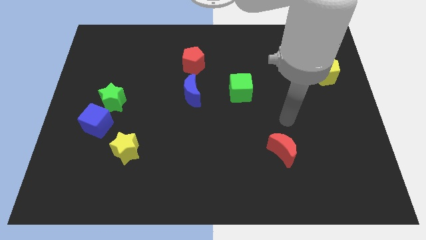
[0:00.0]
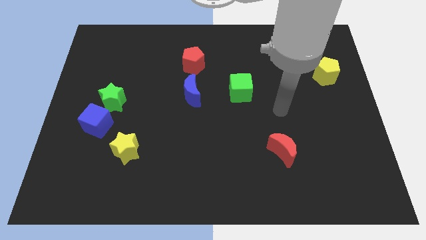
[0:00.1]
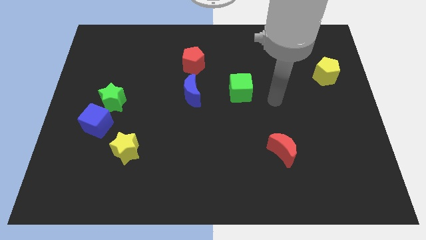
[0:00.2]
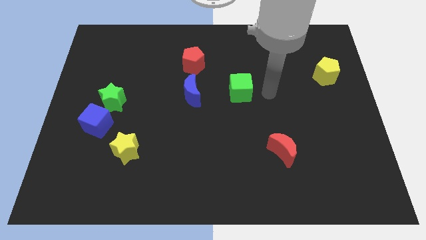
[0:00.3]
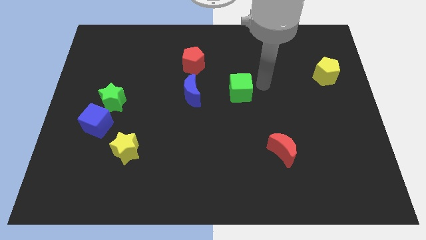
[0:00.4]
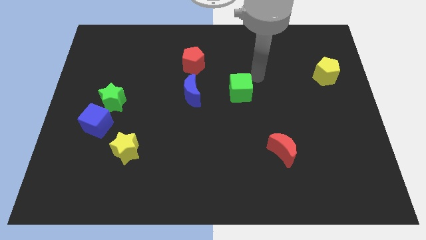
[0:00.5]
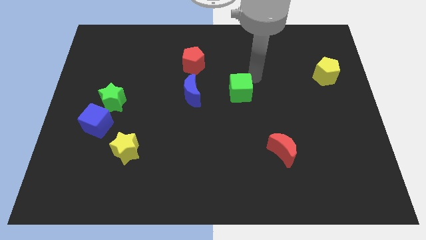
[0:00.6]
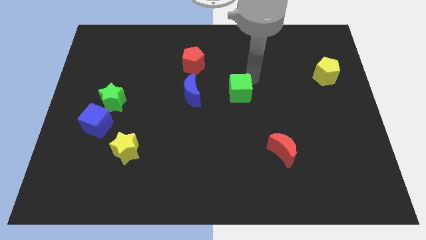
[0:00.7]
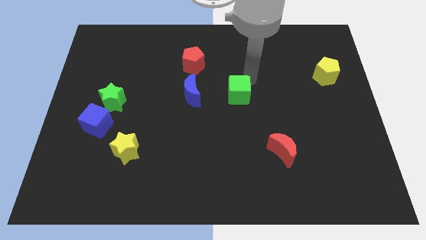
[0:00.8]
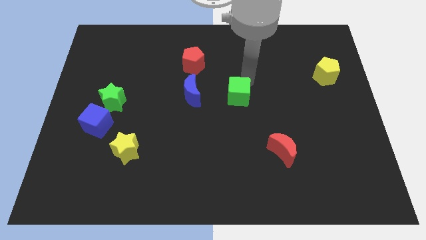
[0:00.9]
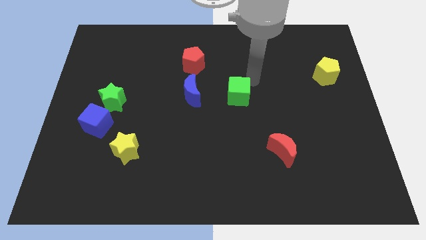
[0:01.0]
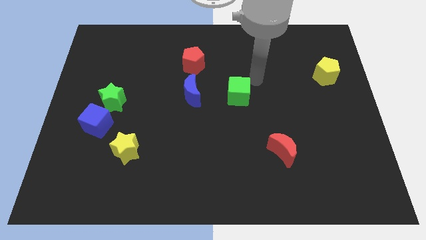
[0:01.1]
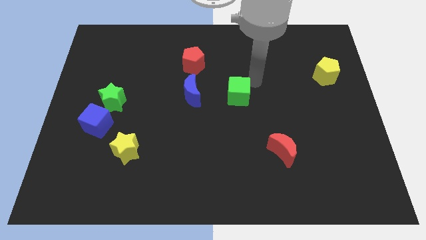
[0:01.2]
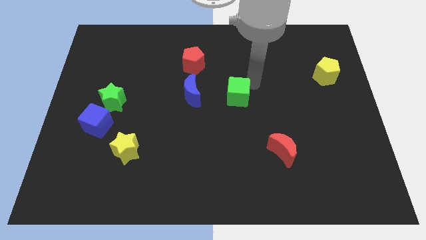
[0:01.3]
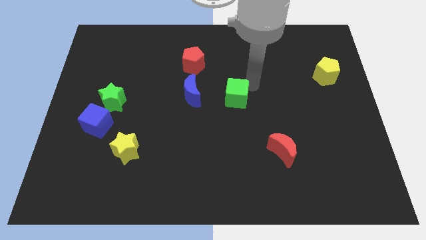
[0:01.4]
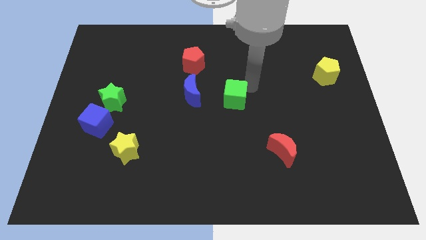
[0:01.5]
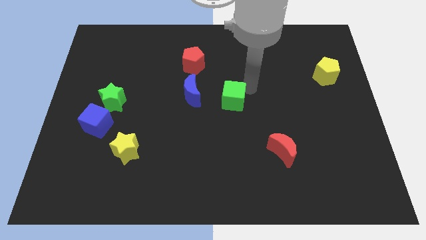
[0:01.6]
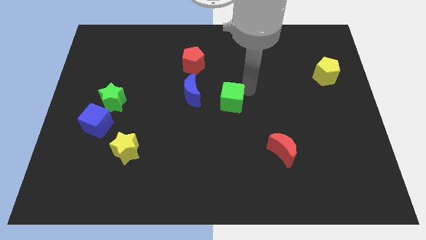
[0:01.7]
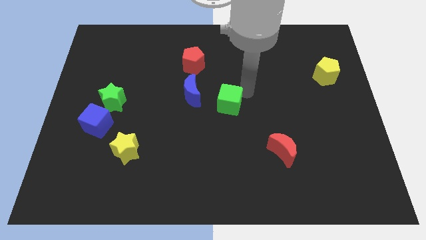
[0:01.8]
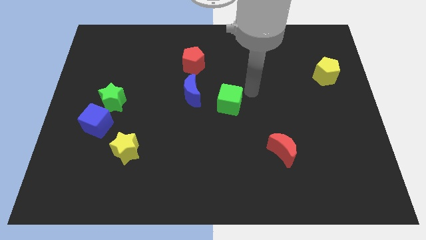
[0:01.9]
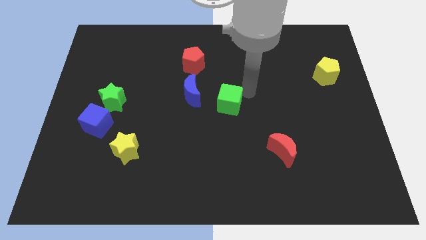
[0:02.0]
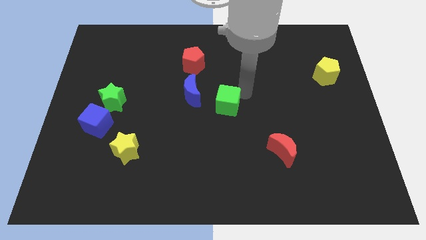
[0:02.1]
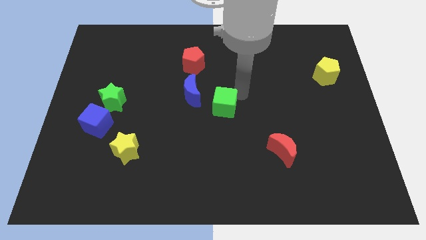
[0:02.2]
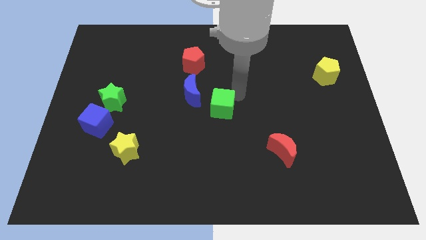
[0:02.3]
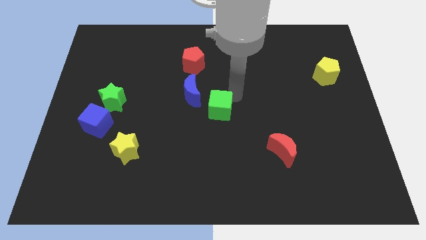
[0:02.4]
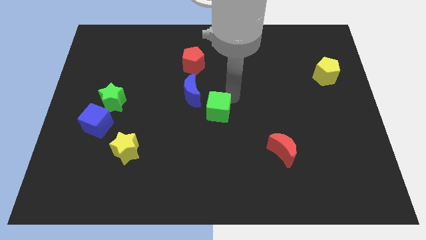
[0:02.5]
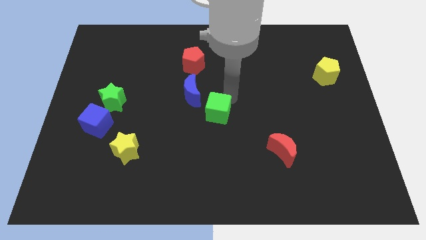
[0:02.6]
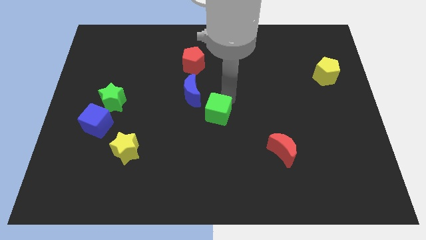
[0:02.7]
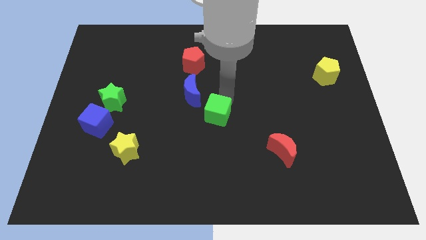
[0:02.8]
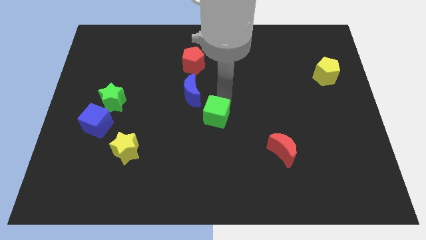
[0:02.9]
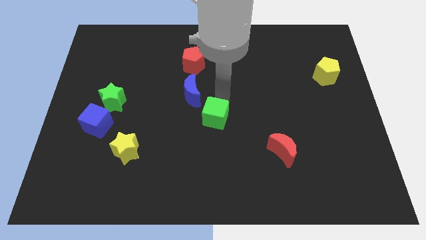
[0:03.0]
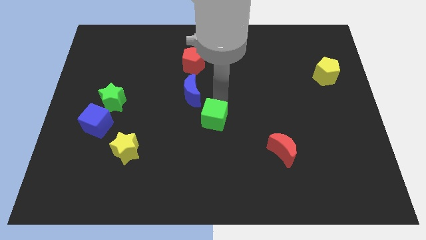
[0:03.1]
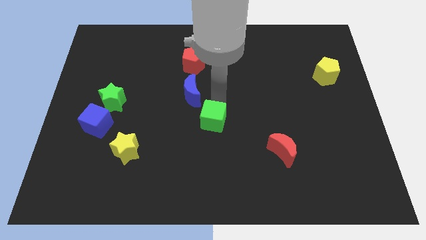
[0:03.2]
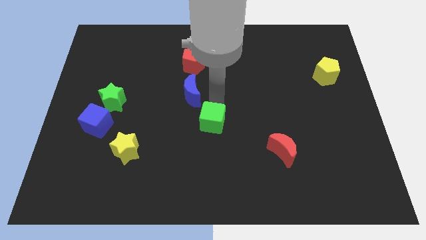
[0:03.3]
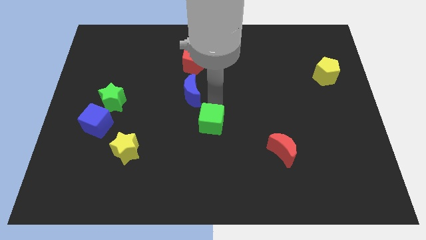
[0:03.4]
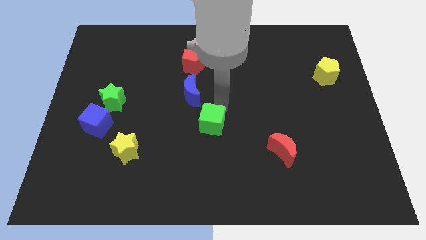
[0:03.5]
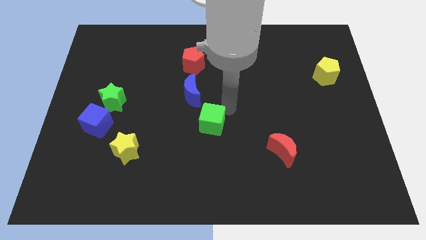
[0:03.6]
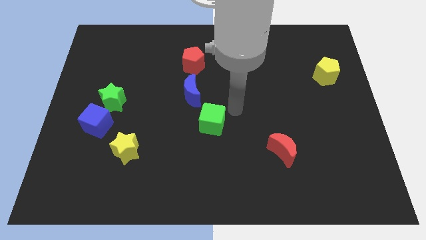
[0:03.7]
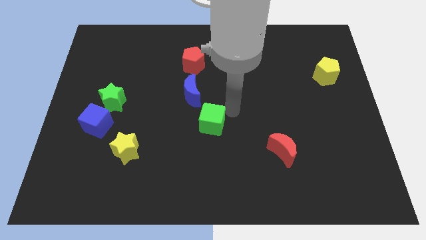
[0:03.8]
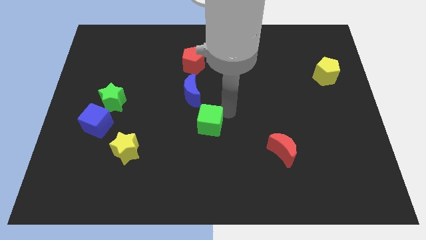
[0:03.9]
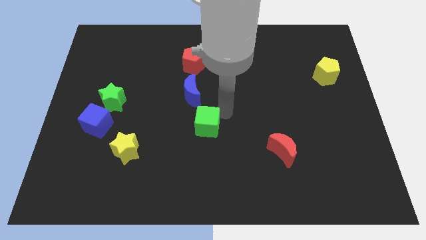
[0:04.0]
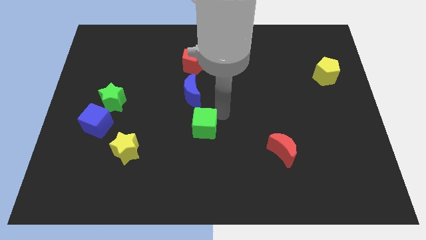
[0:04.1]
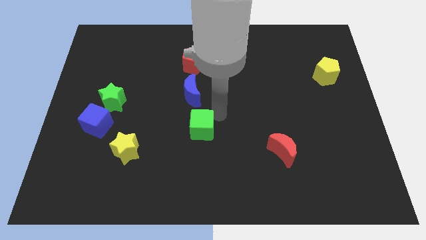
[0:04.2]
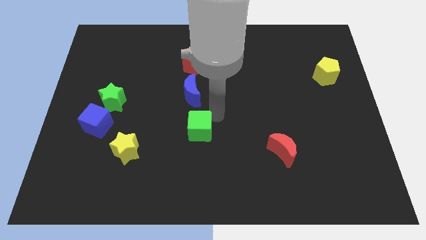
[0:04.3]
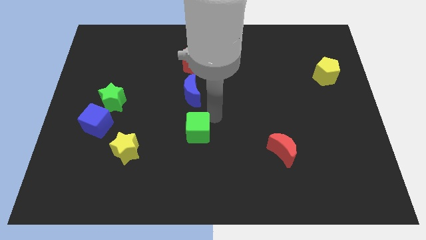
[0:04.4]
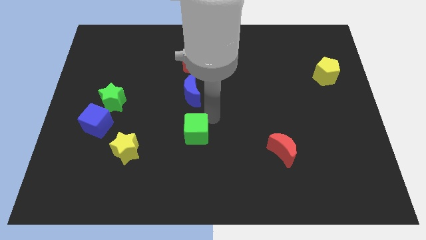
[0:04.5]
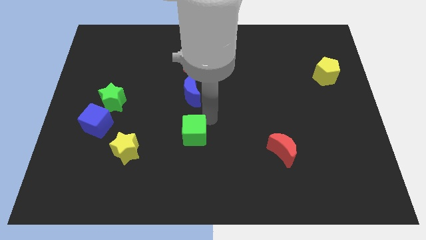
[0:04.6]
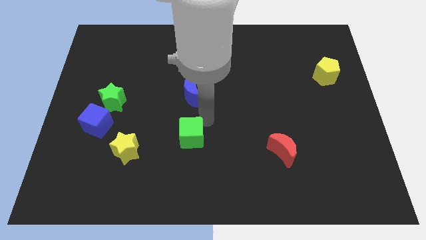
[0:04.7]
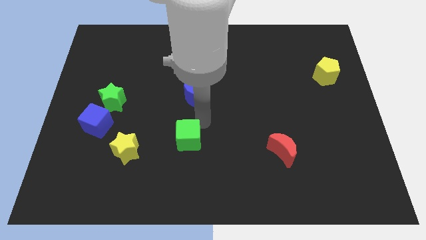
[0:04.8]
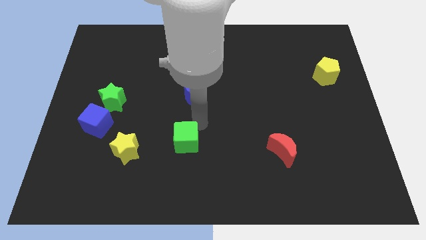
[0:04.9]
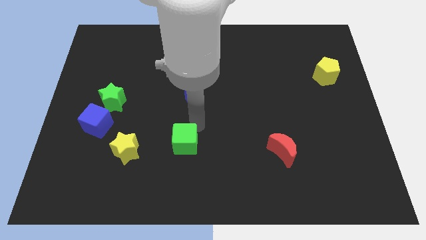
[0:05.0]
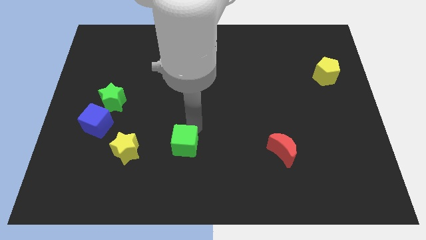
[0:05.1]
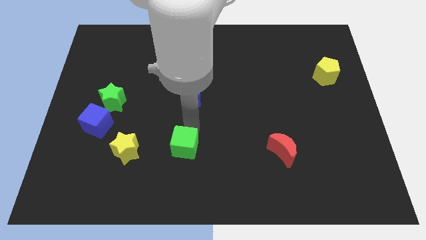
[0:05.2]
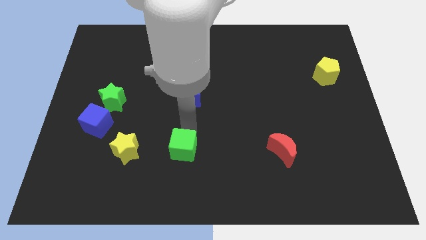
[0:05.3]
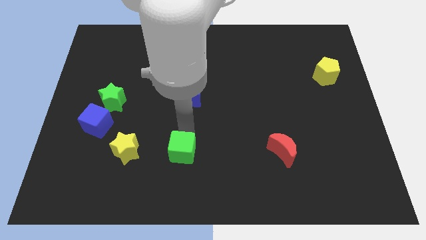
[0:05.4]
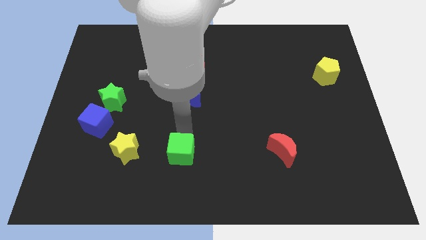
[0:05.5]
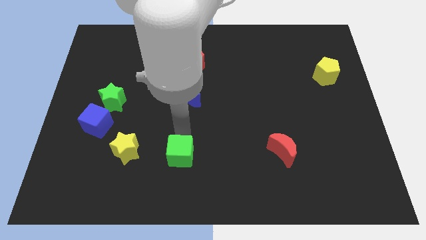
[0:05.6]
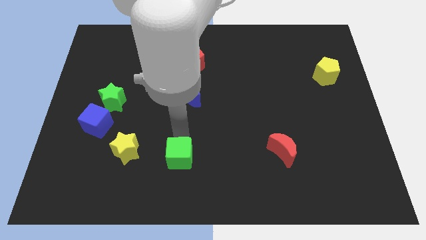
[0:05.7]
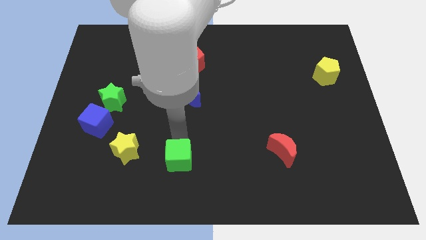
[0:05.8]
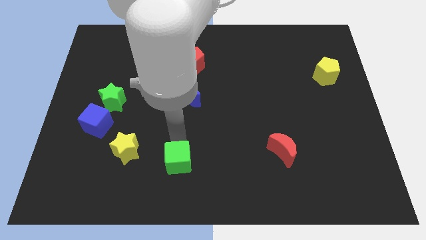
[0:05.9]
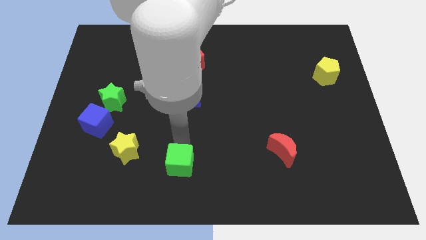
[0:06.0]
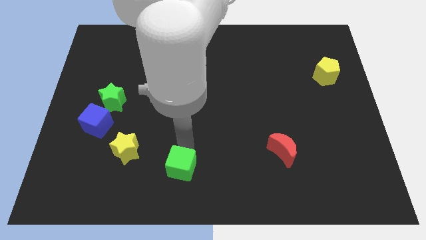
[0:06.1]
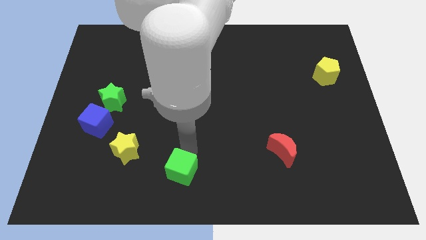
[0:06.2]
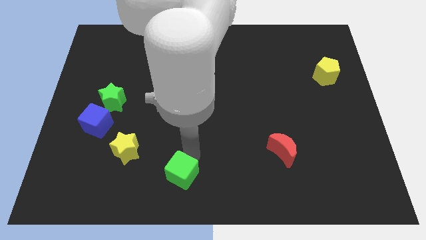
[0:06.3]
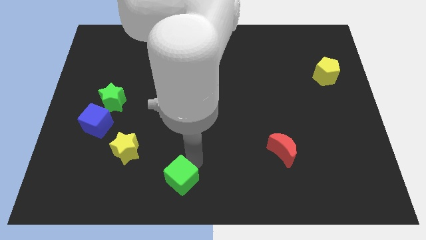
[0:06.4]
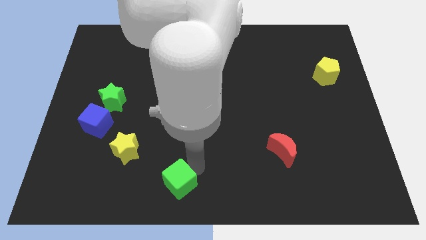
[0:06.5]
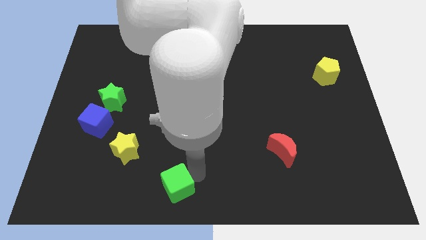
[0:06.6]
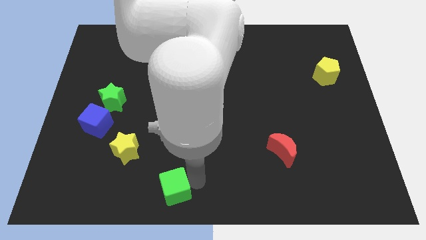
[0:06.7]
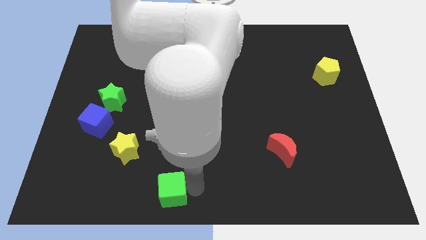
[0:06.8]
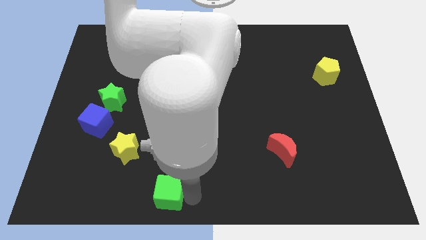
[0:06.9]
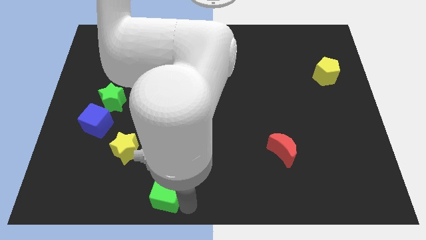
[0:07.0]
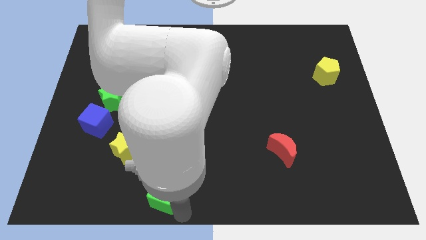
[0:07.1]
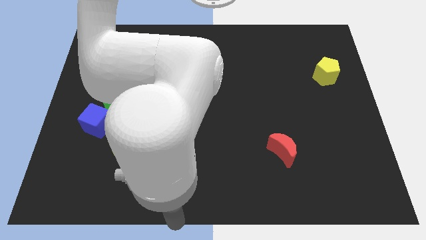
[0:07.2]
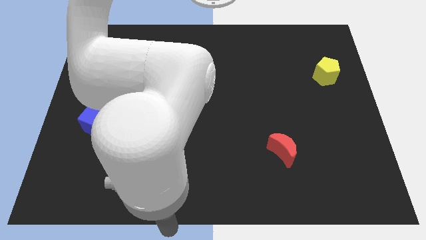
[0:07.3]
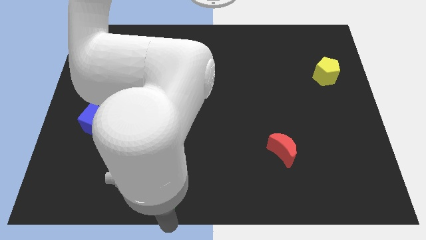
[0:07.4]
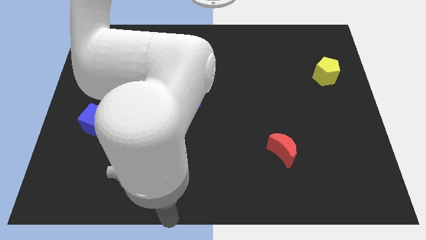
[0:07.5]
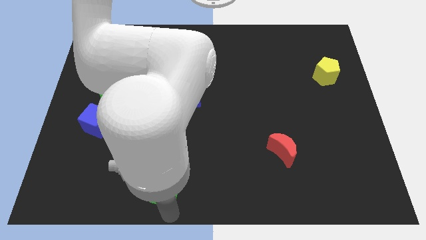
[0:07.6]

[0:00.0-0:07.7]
slide the green cube to the bottom right side of the yellow star
